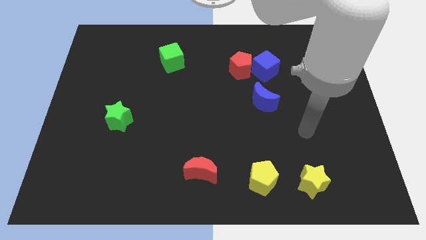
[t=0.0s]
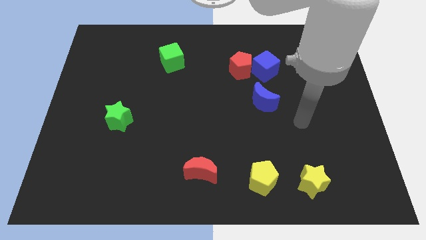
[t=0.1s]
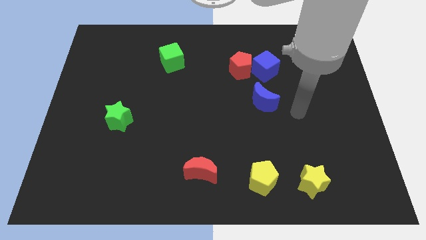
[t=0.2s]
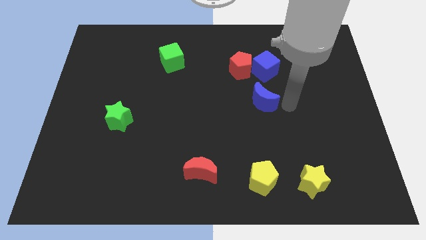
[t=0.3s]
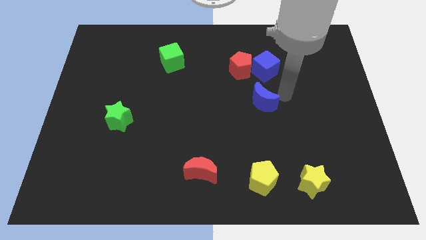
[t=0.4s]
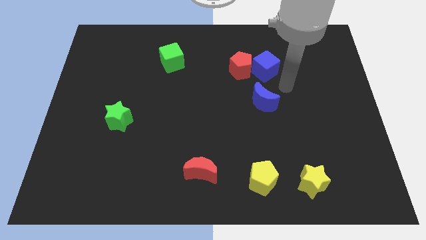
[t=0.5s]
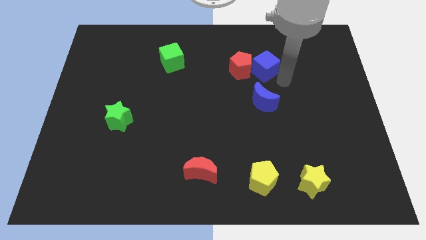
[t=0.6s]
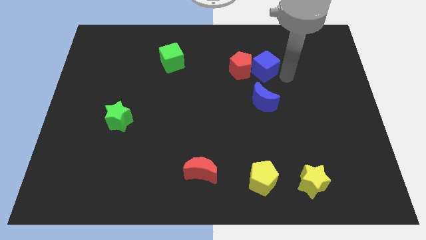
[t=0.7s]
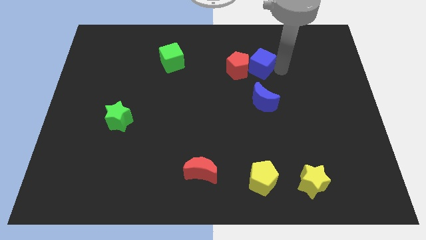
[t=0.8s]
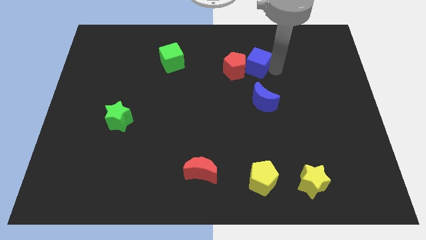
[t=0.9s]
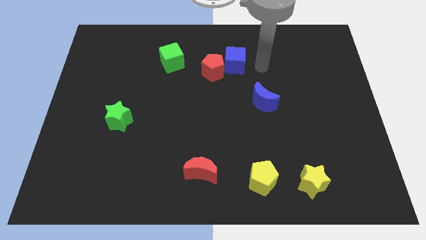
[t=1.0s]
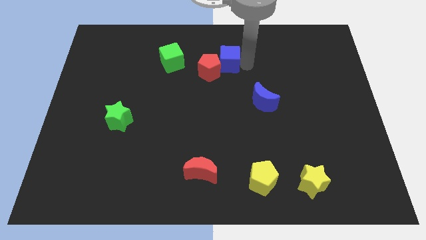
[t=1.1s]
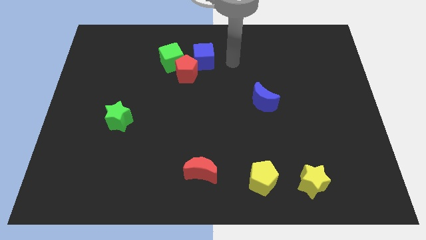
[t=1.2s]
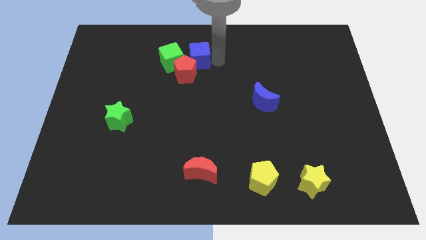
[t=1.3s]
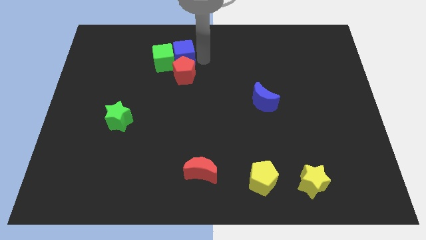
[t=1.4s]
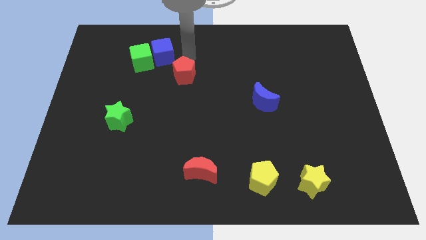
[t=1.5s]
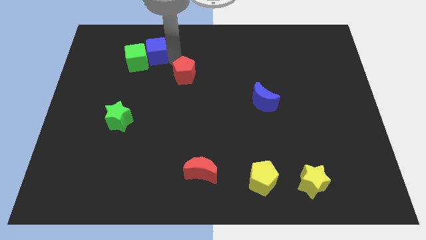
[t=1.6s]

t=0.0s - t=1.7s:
move the red pentagon away from the blue cube

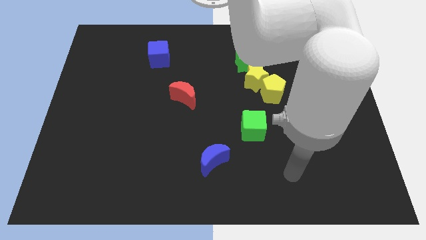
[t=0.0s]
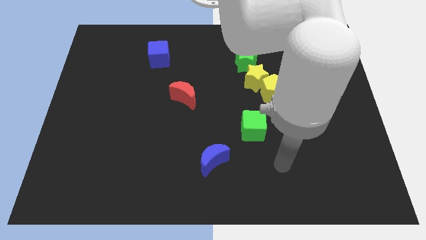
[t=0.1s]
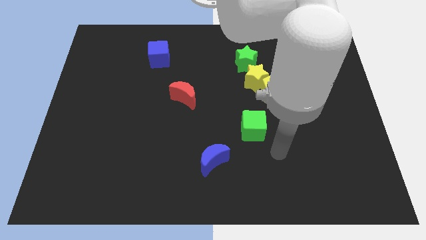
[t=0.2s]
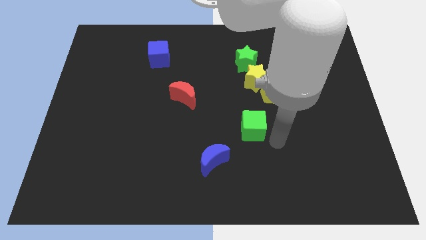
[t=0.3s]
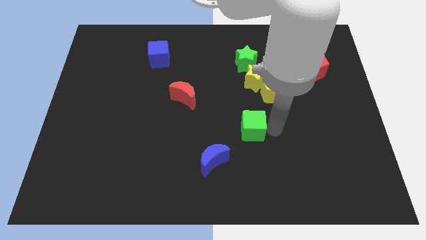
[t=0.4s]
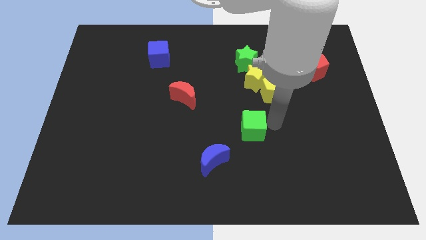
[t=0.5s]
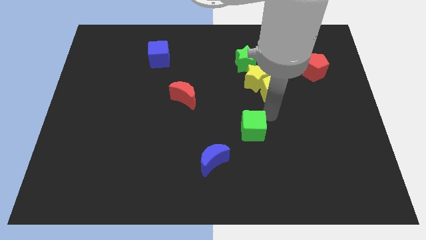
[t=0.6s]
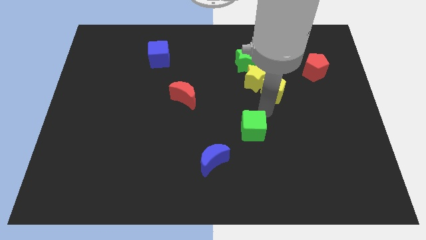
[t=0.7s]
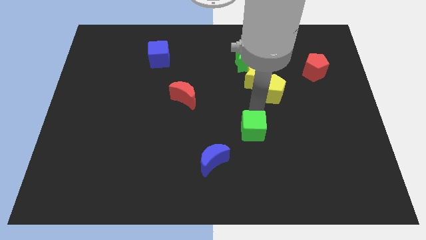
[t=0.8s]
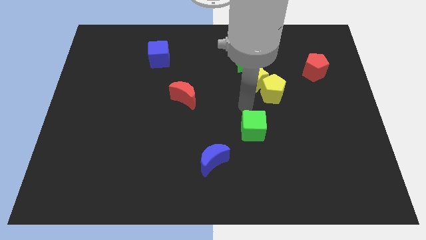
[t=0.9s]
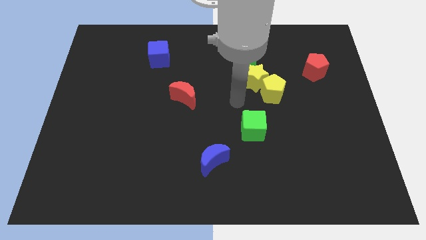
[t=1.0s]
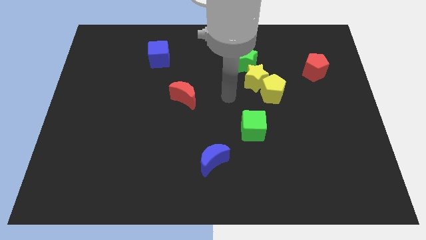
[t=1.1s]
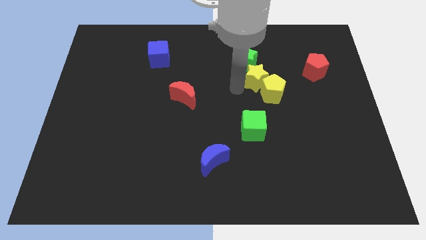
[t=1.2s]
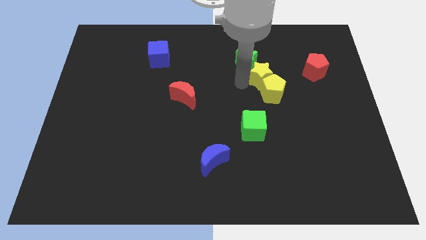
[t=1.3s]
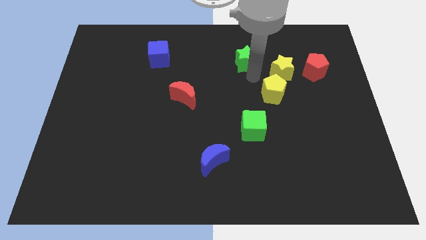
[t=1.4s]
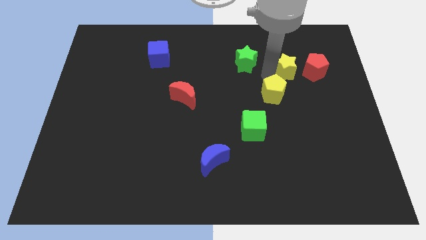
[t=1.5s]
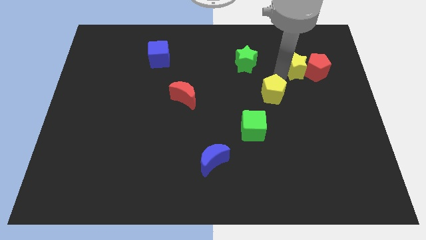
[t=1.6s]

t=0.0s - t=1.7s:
separate the yellow pentagon from the yellow star

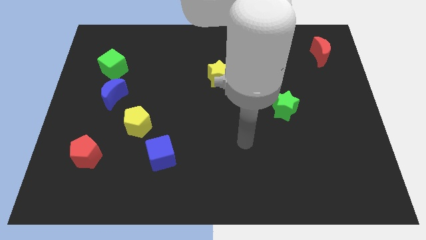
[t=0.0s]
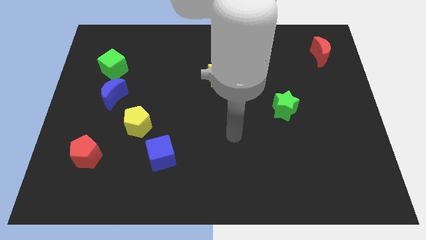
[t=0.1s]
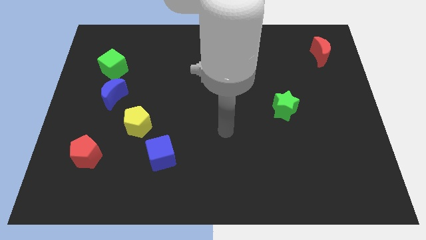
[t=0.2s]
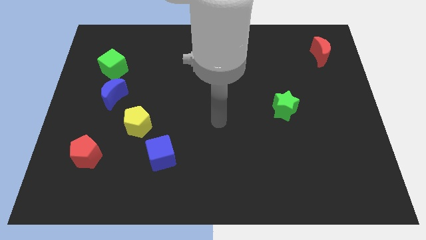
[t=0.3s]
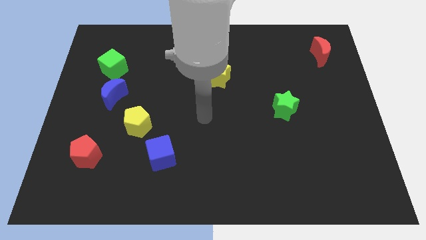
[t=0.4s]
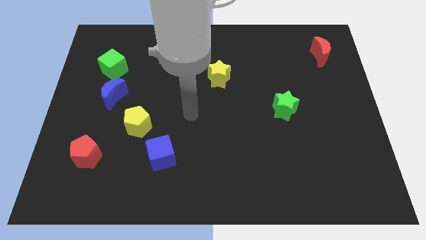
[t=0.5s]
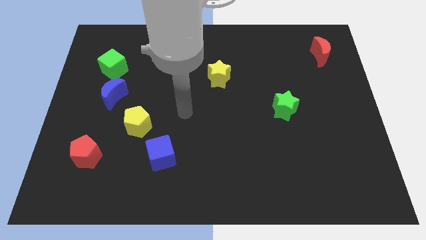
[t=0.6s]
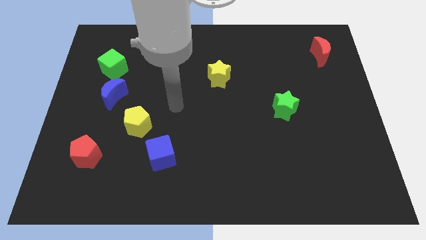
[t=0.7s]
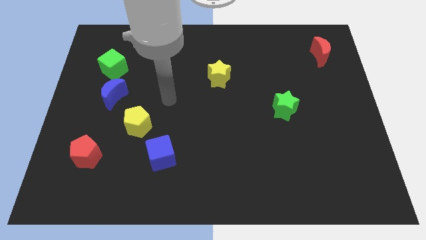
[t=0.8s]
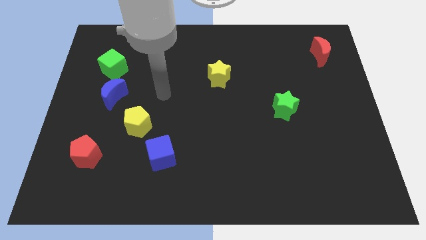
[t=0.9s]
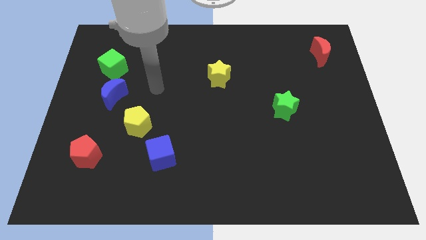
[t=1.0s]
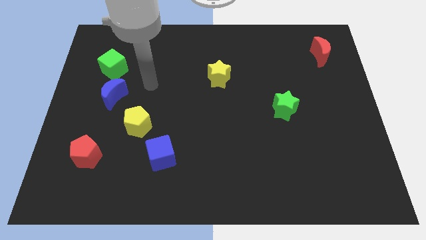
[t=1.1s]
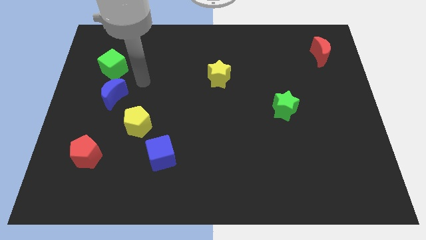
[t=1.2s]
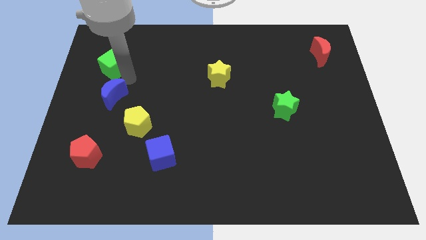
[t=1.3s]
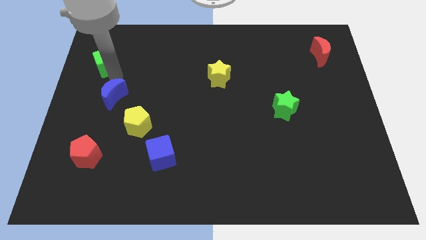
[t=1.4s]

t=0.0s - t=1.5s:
move the blue moon away from the green cube

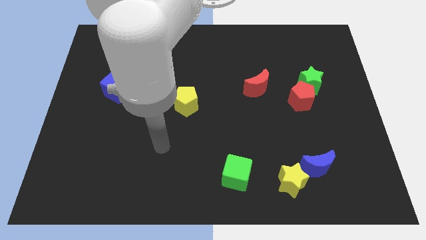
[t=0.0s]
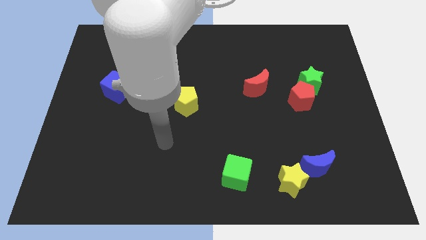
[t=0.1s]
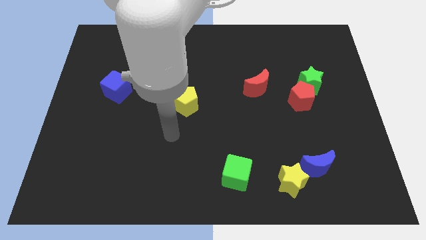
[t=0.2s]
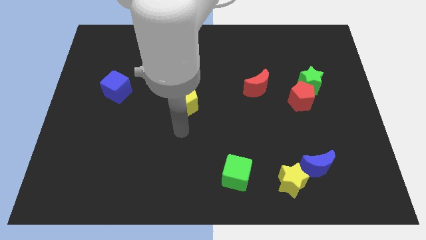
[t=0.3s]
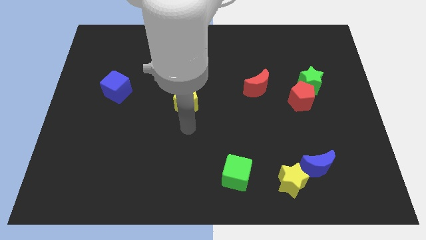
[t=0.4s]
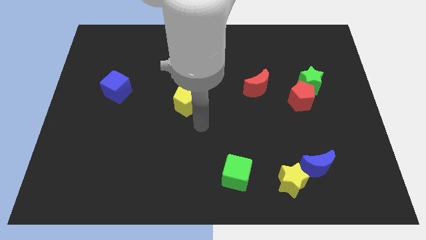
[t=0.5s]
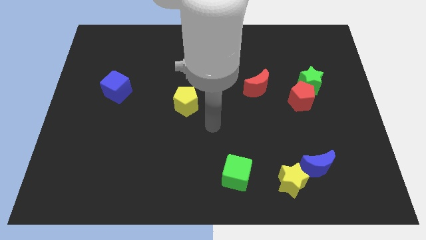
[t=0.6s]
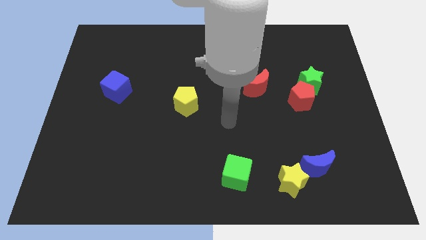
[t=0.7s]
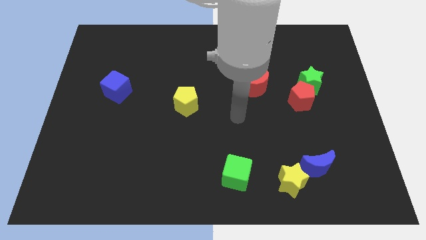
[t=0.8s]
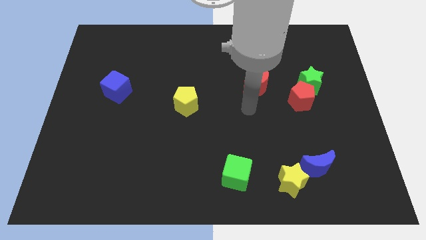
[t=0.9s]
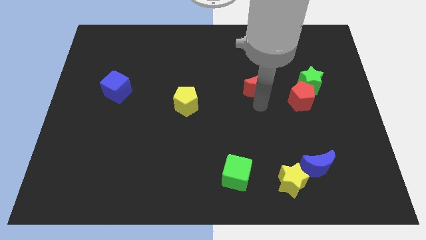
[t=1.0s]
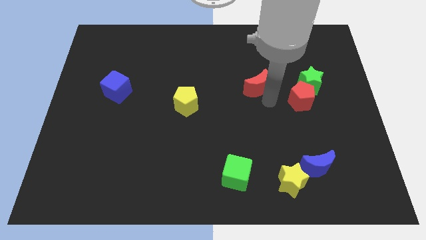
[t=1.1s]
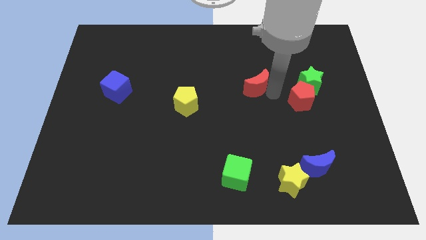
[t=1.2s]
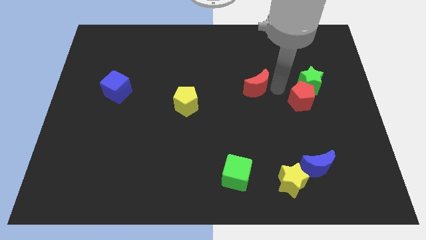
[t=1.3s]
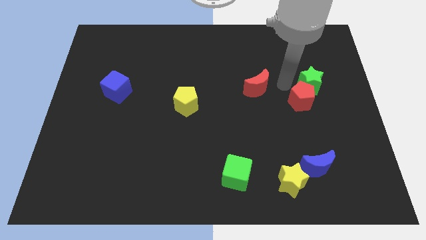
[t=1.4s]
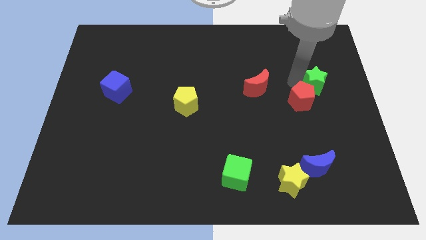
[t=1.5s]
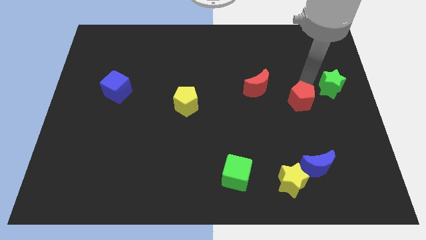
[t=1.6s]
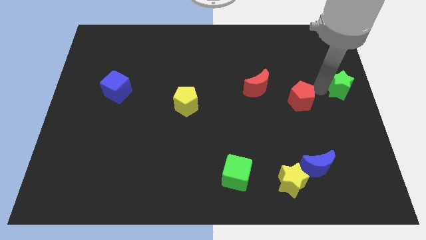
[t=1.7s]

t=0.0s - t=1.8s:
pull the red pentagon apart from the green star

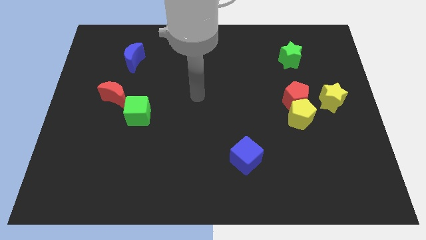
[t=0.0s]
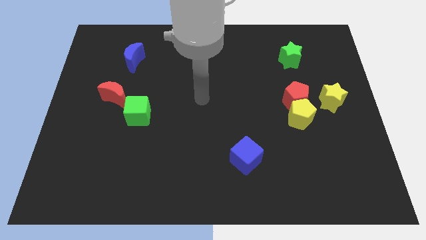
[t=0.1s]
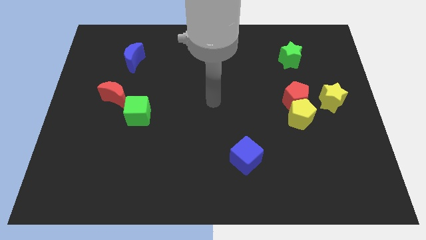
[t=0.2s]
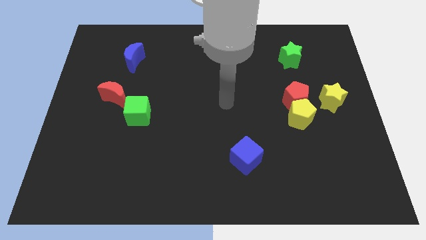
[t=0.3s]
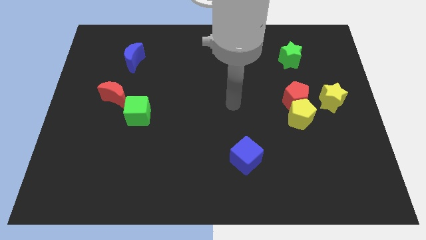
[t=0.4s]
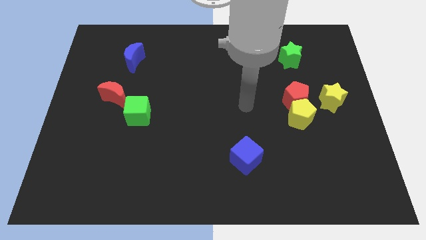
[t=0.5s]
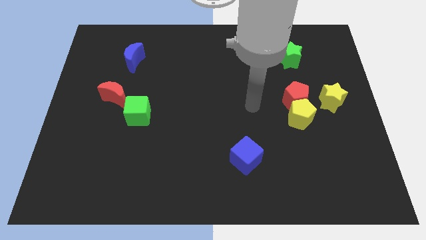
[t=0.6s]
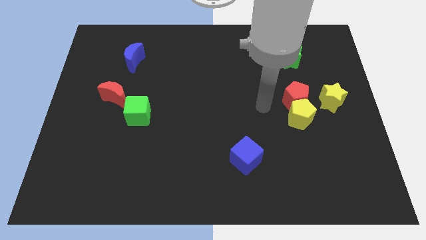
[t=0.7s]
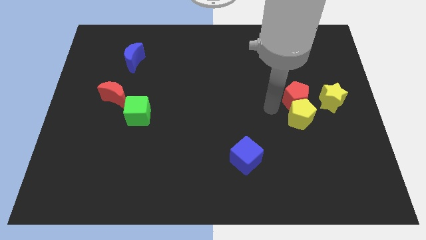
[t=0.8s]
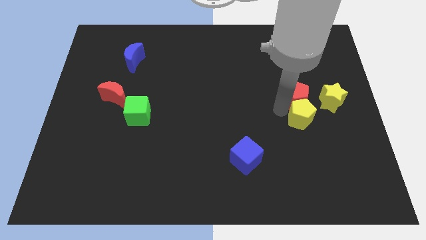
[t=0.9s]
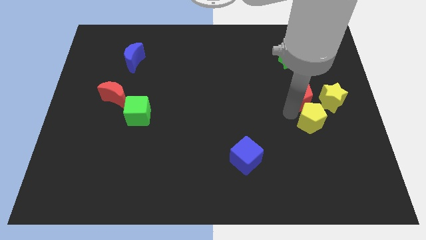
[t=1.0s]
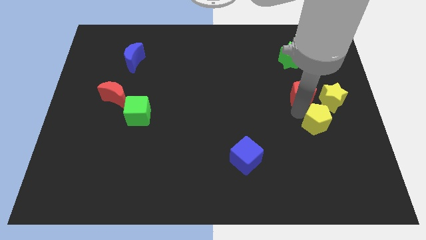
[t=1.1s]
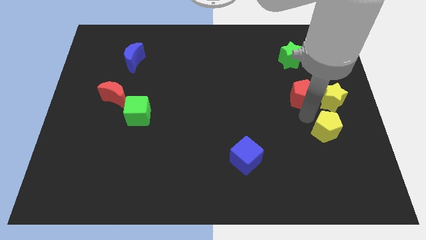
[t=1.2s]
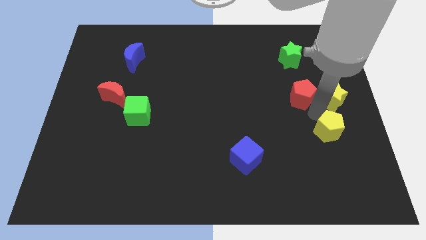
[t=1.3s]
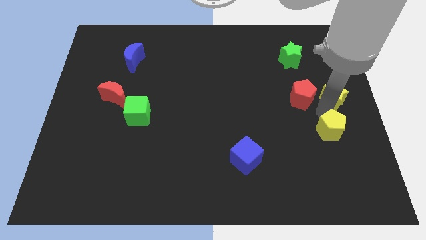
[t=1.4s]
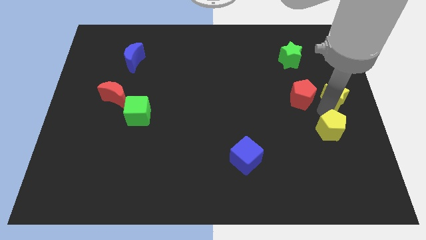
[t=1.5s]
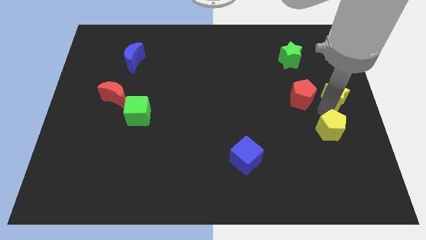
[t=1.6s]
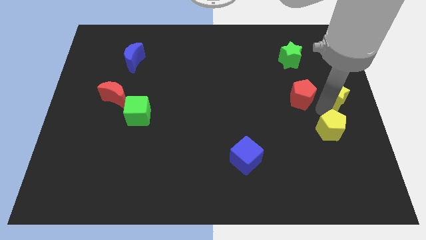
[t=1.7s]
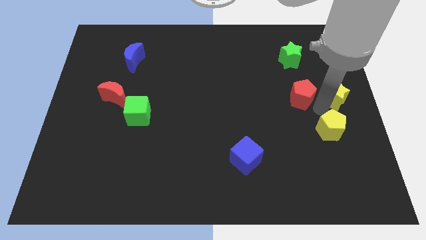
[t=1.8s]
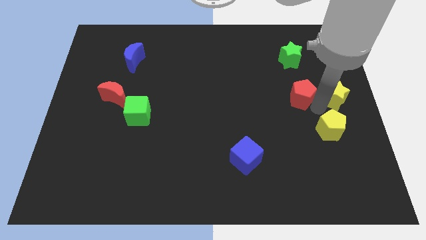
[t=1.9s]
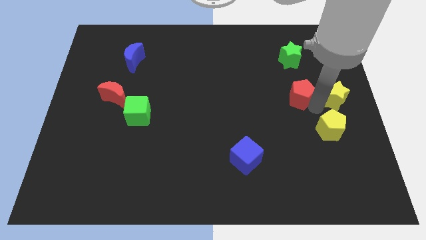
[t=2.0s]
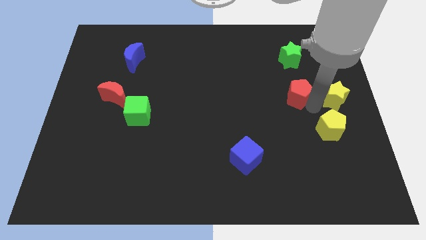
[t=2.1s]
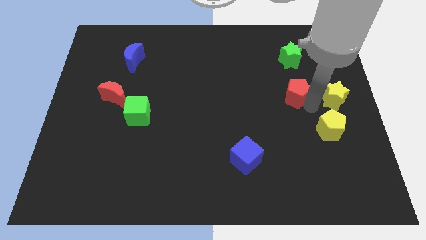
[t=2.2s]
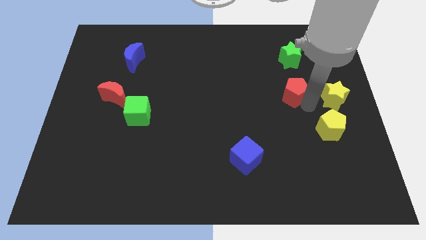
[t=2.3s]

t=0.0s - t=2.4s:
separate the red pentagon from the yellow pentagon and yellow star

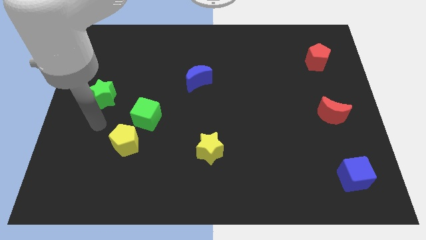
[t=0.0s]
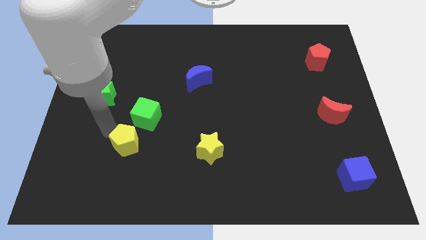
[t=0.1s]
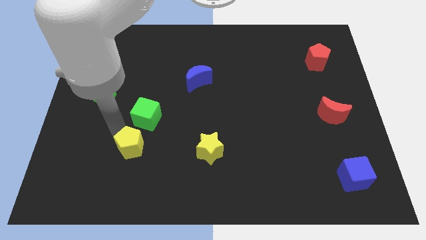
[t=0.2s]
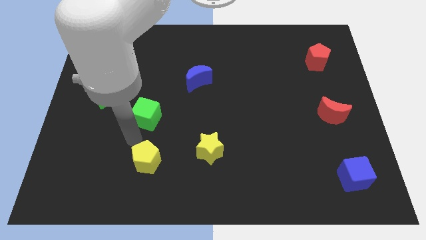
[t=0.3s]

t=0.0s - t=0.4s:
pull the green cube apart from the yellow pentagon
